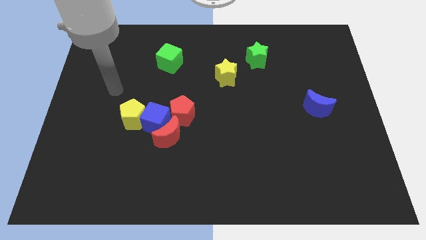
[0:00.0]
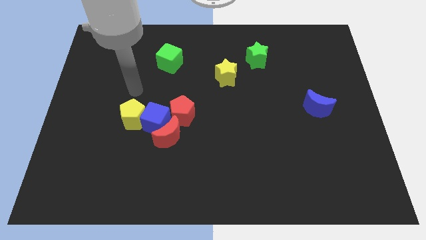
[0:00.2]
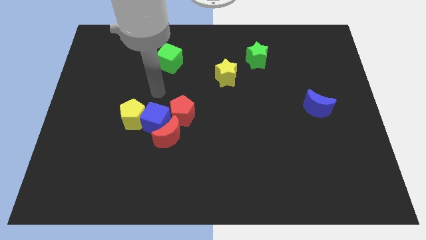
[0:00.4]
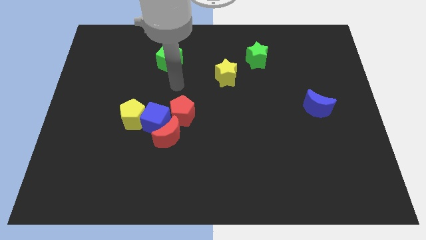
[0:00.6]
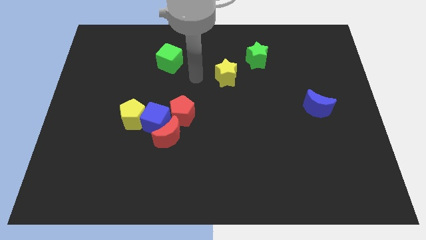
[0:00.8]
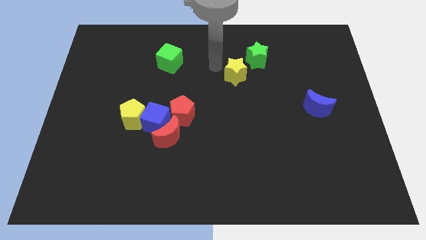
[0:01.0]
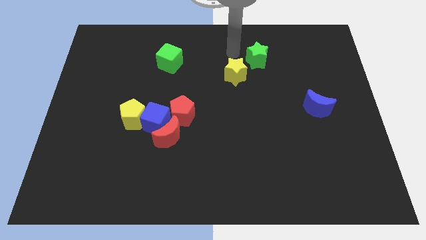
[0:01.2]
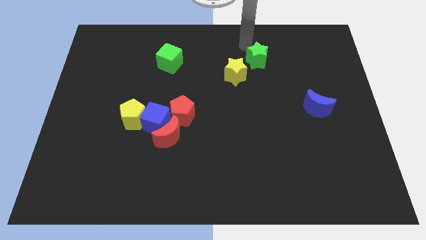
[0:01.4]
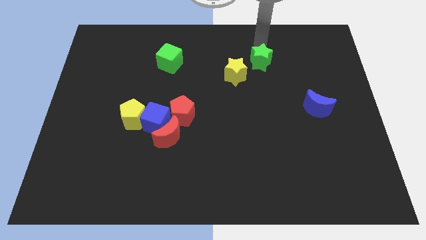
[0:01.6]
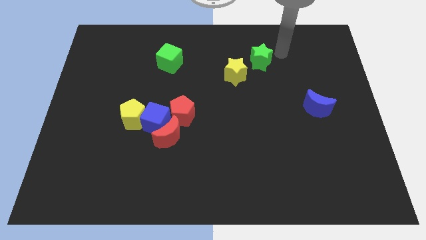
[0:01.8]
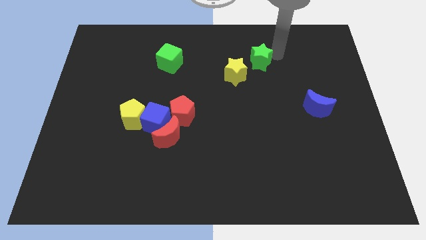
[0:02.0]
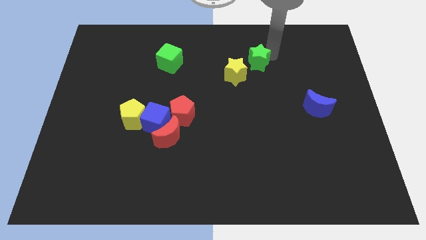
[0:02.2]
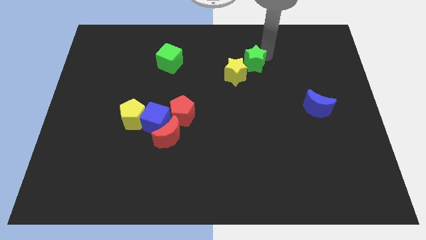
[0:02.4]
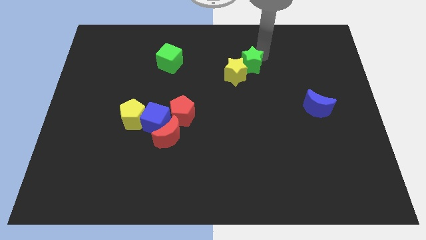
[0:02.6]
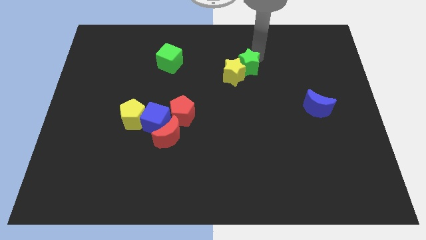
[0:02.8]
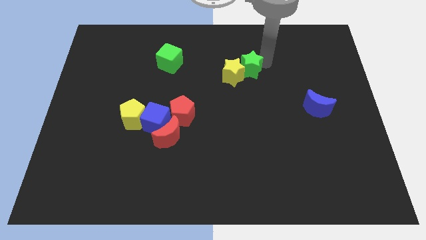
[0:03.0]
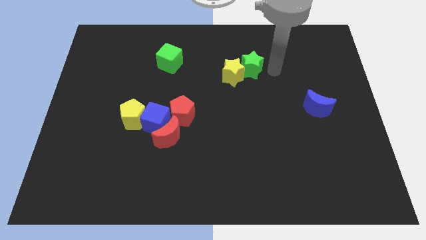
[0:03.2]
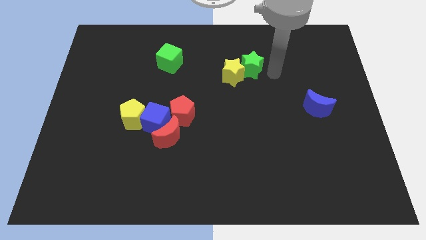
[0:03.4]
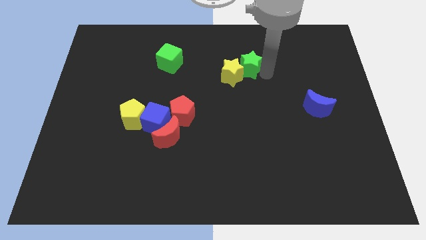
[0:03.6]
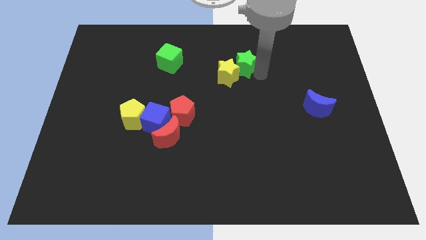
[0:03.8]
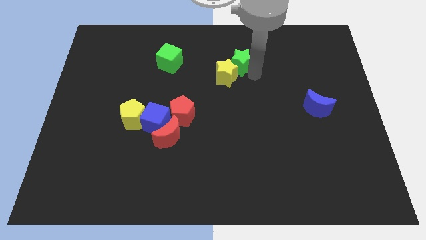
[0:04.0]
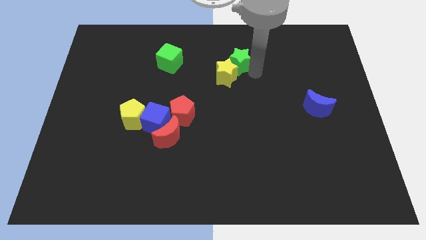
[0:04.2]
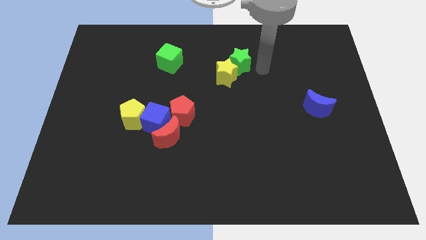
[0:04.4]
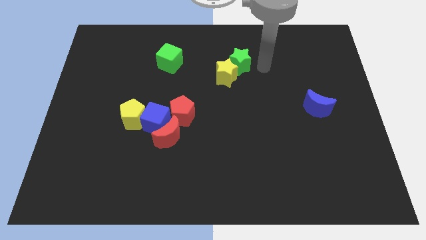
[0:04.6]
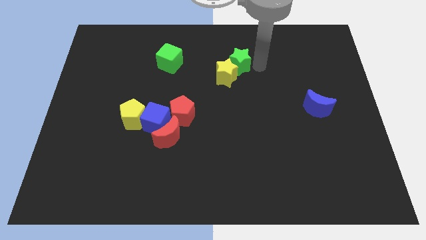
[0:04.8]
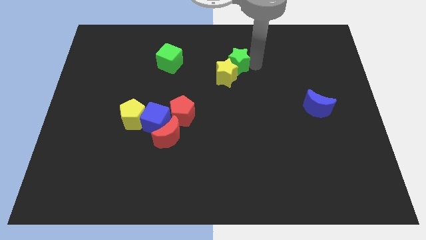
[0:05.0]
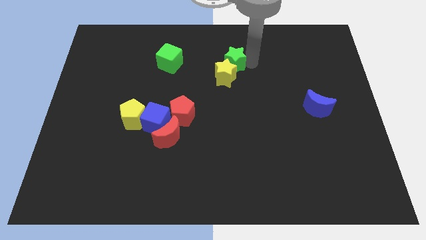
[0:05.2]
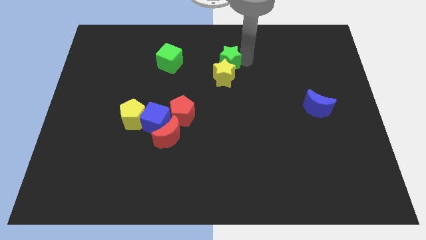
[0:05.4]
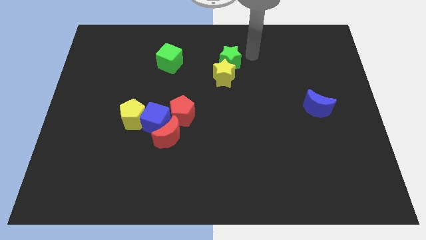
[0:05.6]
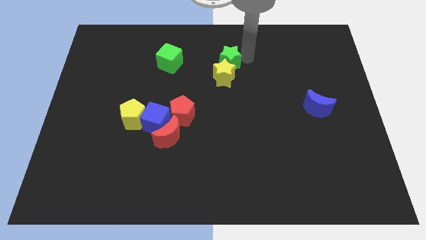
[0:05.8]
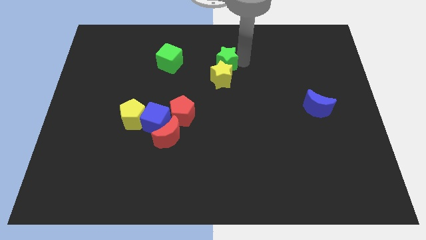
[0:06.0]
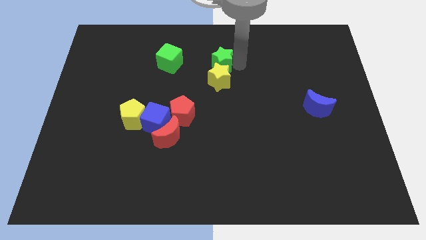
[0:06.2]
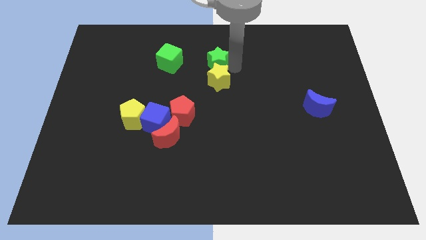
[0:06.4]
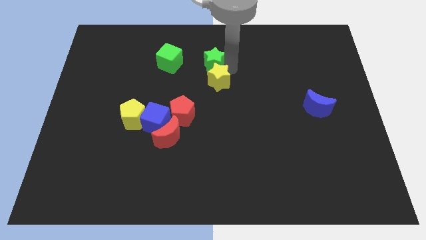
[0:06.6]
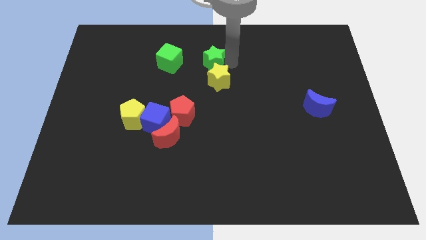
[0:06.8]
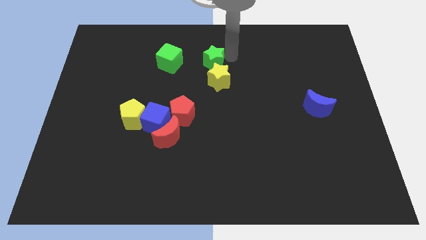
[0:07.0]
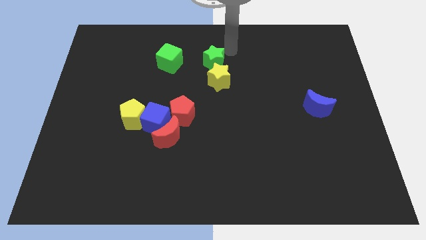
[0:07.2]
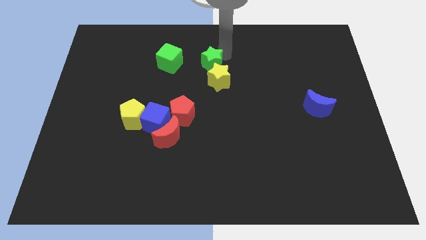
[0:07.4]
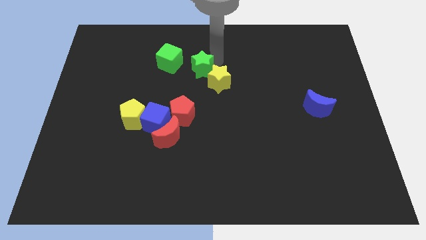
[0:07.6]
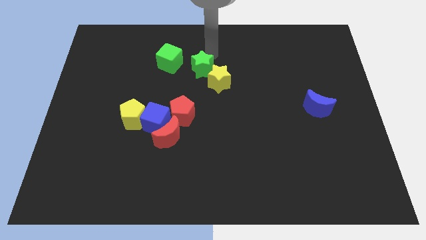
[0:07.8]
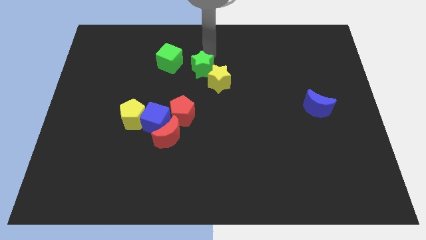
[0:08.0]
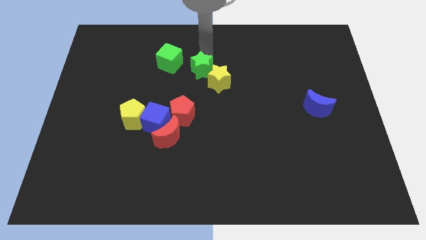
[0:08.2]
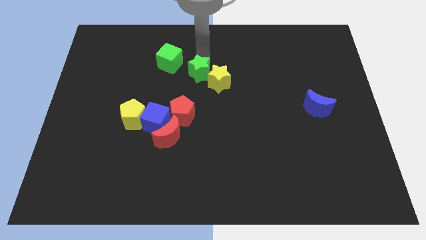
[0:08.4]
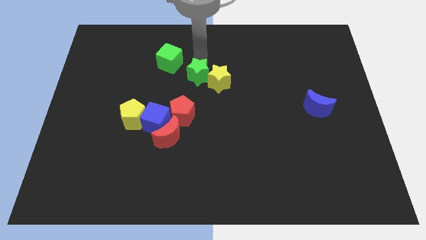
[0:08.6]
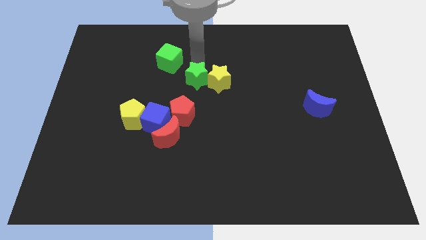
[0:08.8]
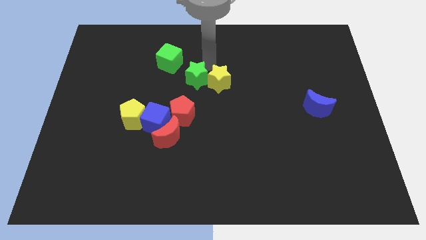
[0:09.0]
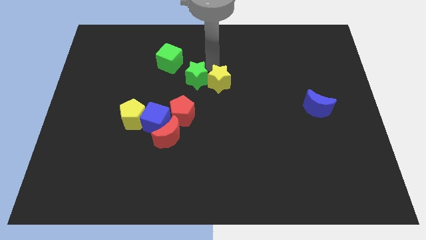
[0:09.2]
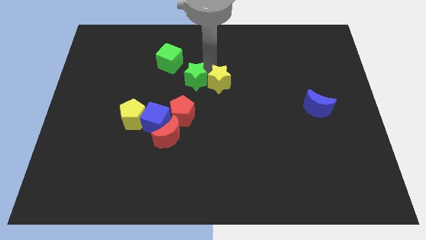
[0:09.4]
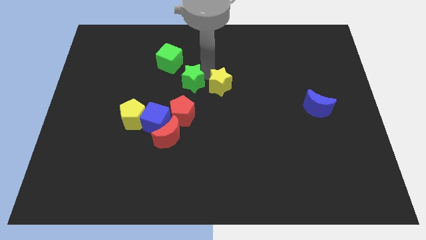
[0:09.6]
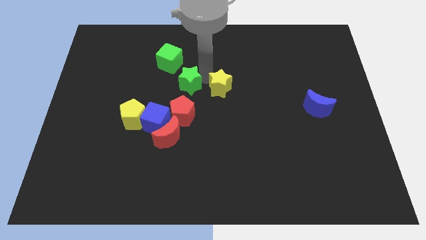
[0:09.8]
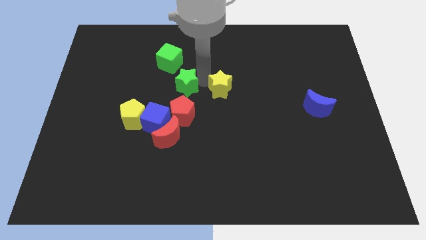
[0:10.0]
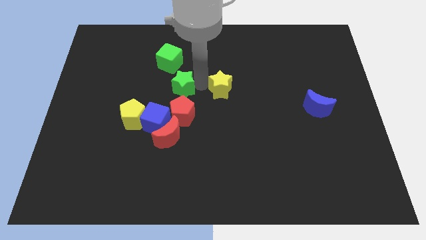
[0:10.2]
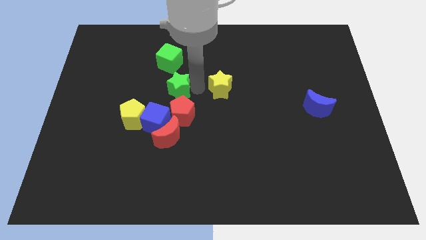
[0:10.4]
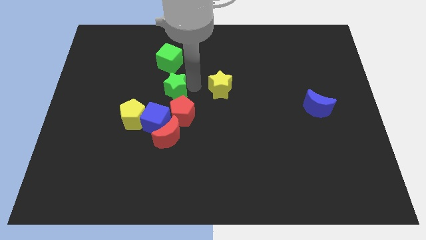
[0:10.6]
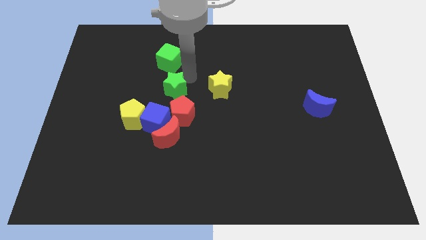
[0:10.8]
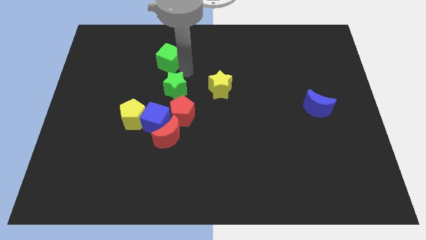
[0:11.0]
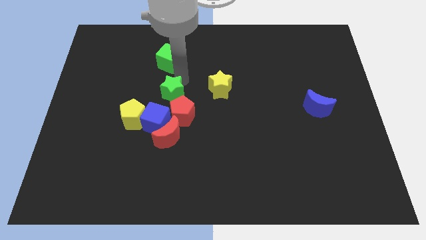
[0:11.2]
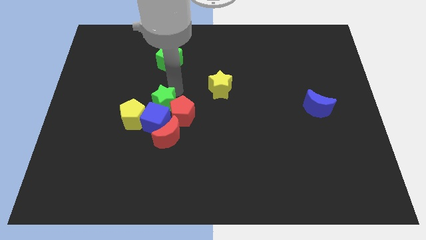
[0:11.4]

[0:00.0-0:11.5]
put the green star close to the blue cube

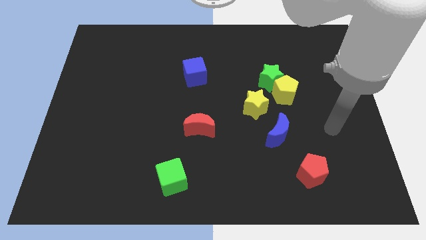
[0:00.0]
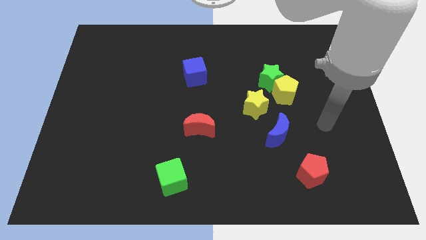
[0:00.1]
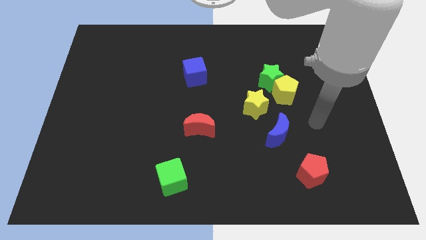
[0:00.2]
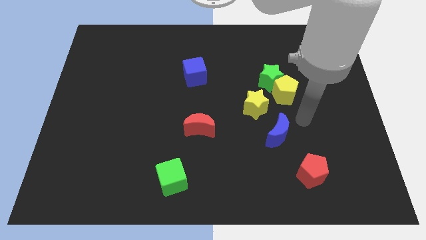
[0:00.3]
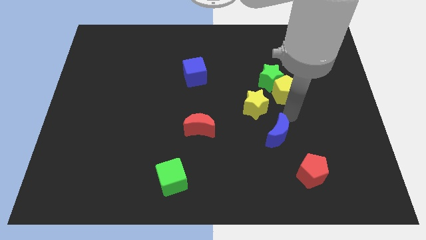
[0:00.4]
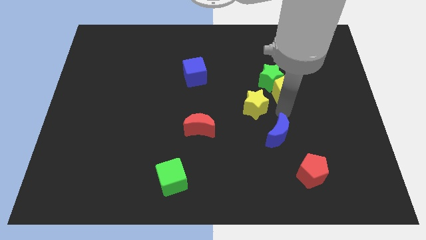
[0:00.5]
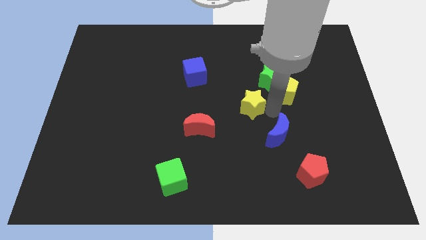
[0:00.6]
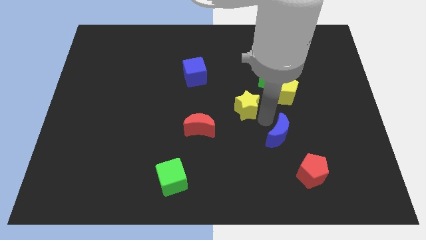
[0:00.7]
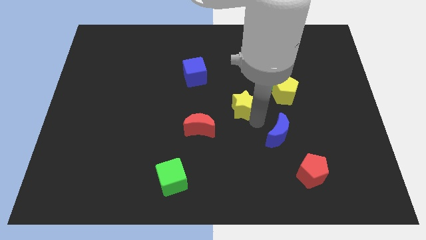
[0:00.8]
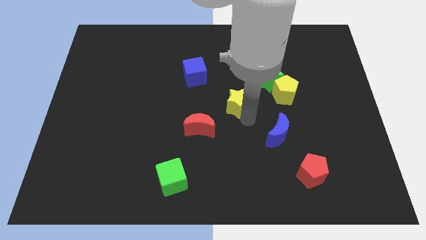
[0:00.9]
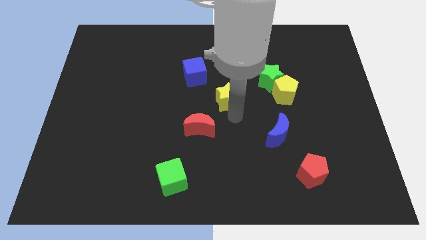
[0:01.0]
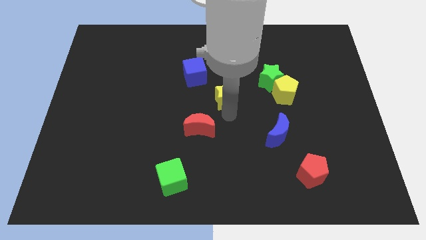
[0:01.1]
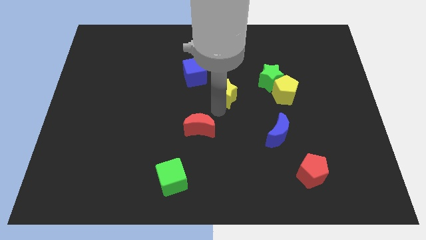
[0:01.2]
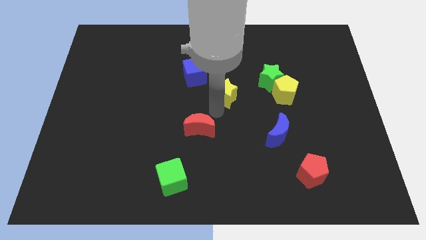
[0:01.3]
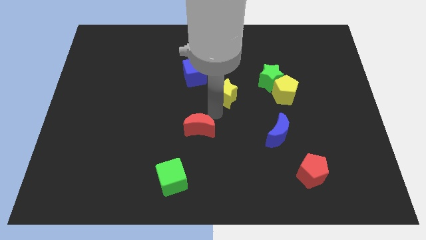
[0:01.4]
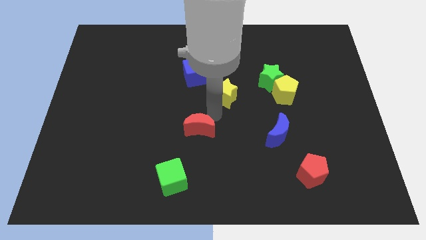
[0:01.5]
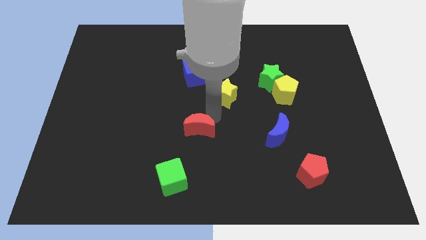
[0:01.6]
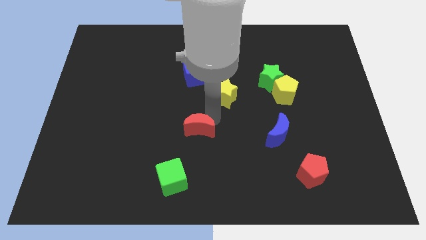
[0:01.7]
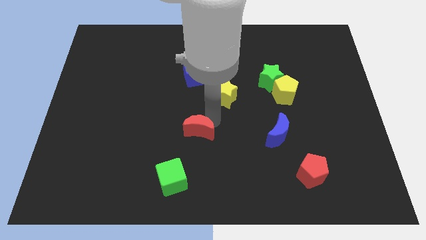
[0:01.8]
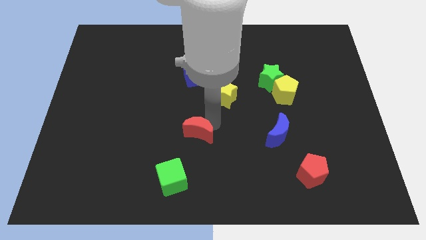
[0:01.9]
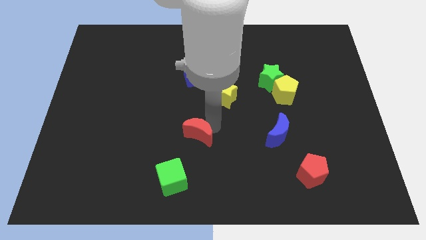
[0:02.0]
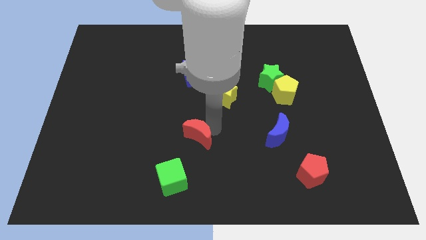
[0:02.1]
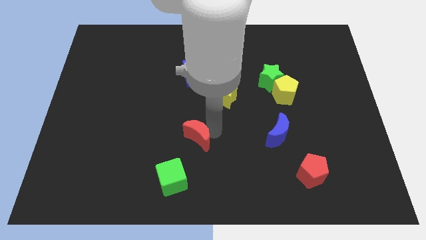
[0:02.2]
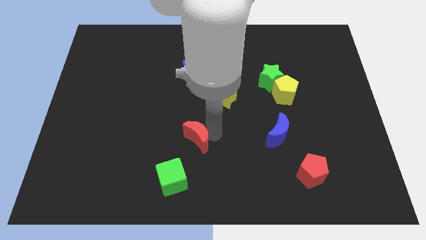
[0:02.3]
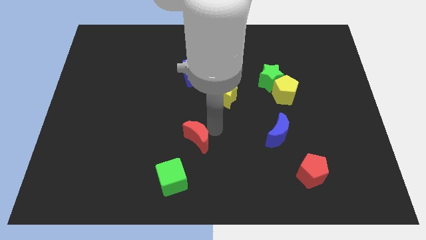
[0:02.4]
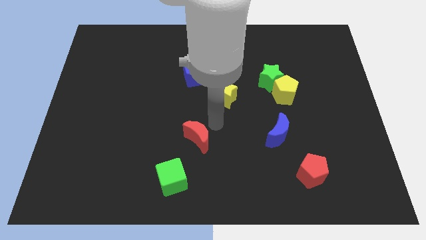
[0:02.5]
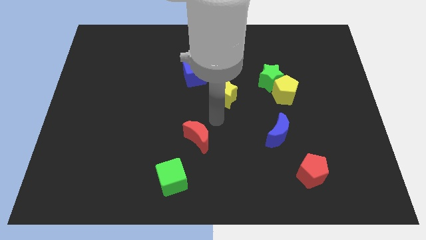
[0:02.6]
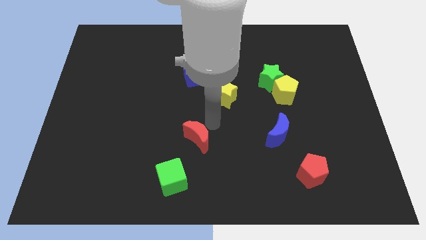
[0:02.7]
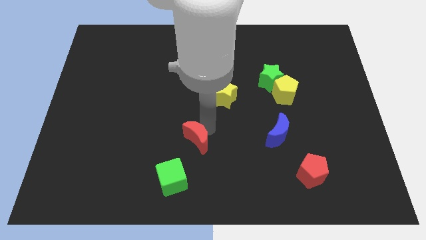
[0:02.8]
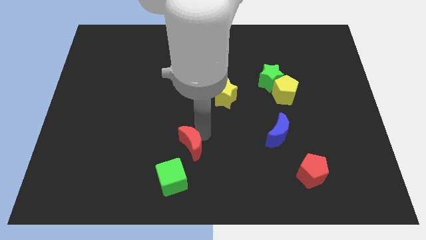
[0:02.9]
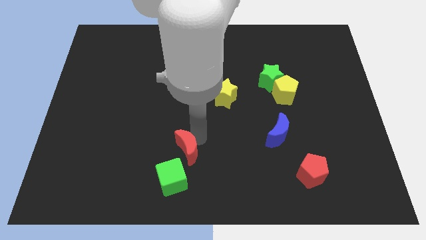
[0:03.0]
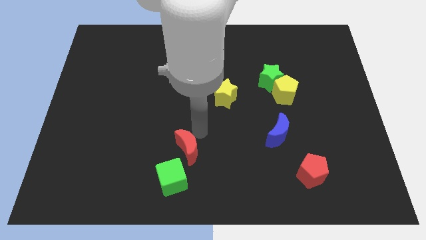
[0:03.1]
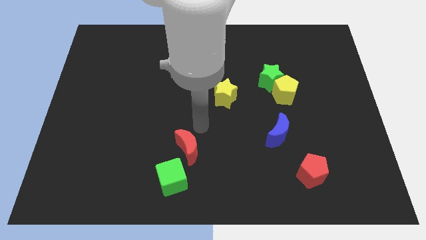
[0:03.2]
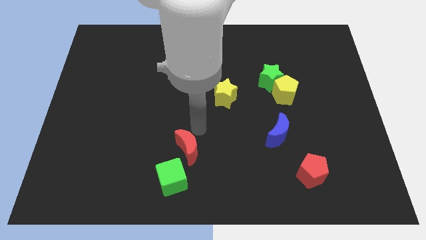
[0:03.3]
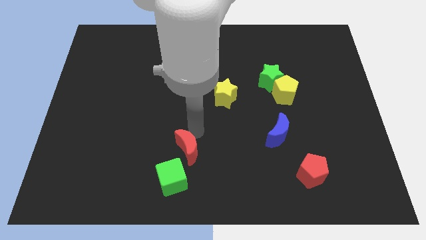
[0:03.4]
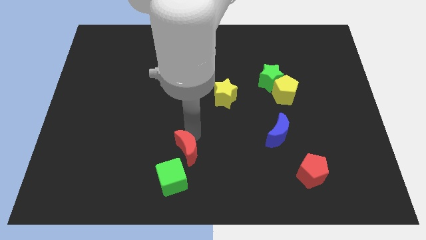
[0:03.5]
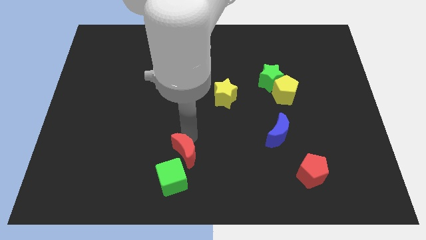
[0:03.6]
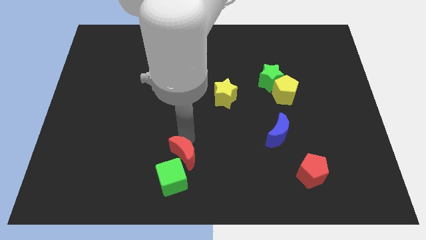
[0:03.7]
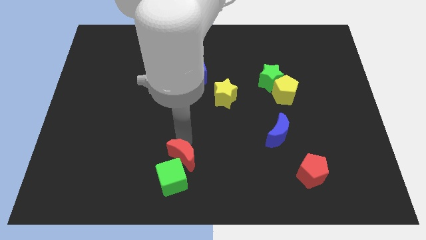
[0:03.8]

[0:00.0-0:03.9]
move the red moon to the green cube
